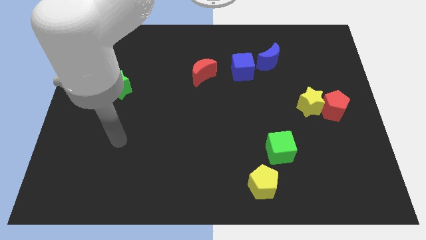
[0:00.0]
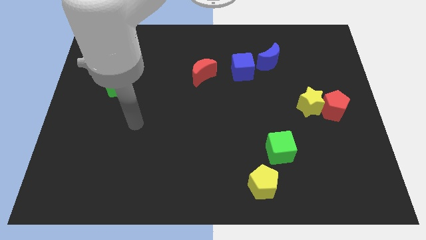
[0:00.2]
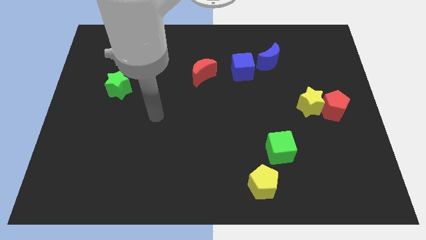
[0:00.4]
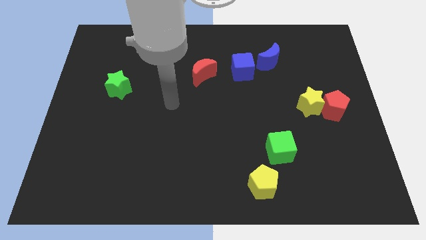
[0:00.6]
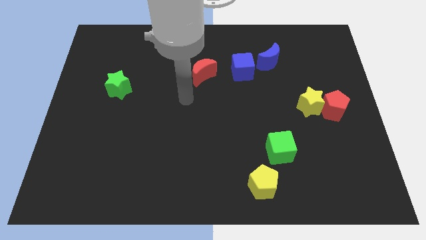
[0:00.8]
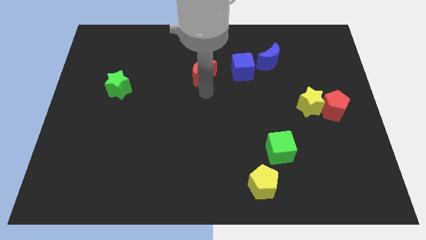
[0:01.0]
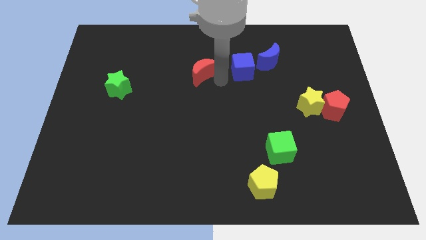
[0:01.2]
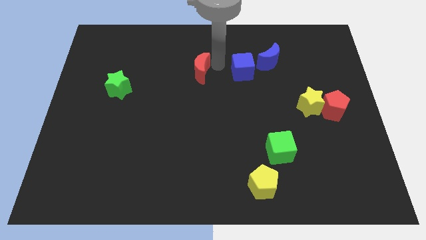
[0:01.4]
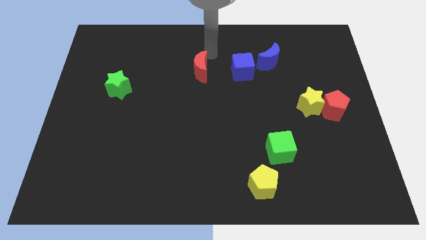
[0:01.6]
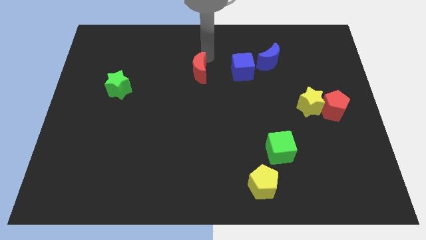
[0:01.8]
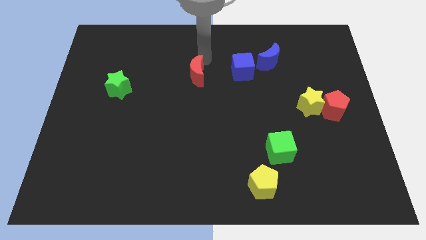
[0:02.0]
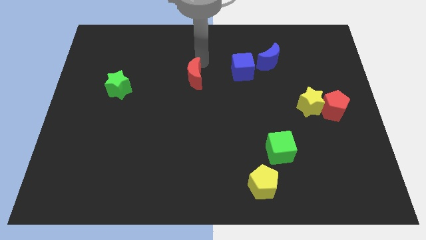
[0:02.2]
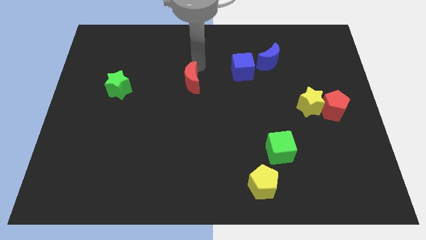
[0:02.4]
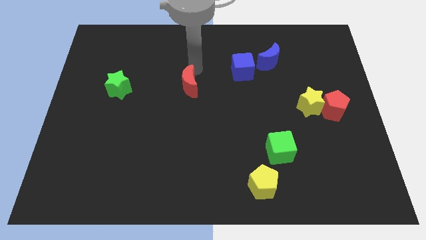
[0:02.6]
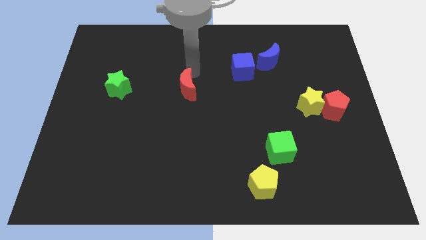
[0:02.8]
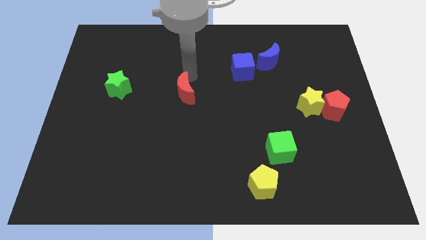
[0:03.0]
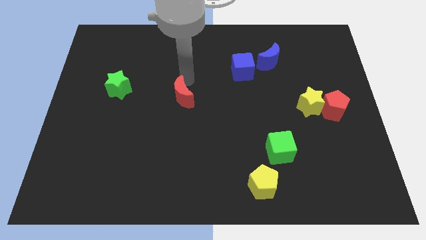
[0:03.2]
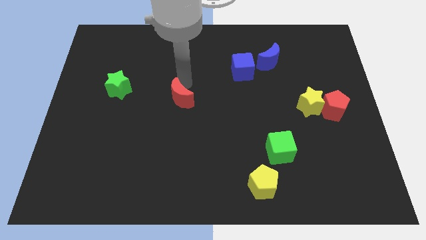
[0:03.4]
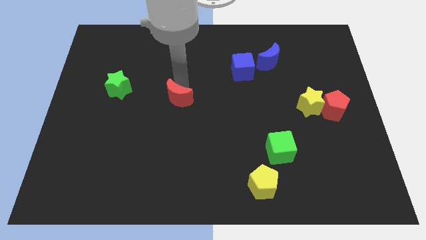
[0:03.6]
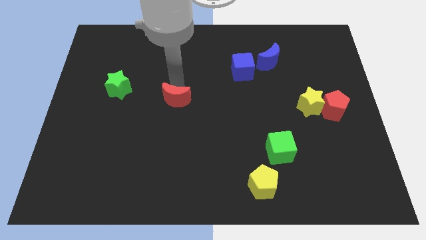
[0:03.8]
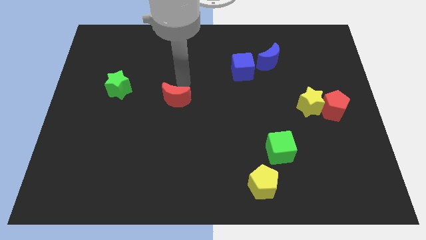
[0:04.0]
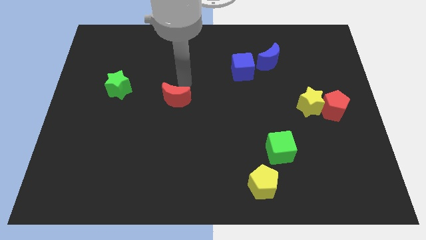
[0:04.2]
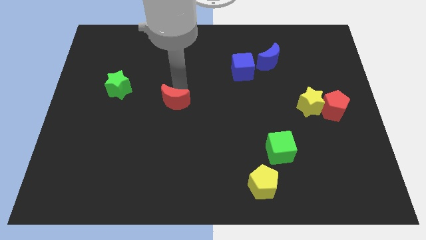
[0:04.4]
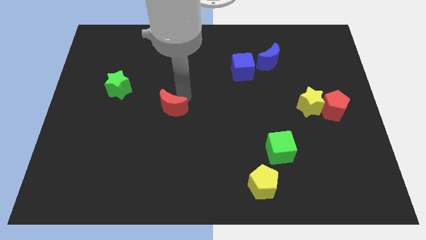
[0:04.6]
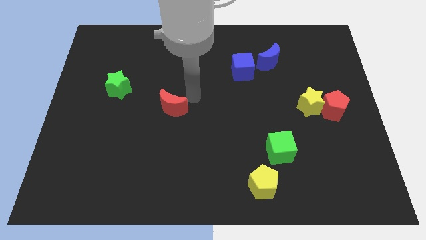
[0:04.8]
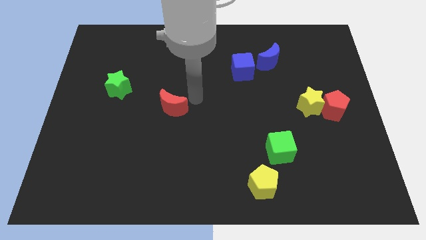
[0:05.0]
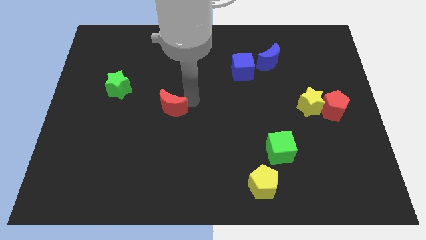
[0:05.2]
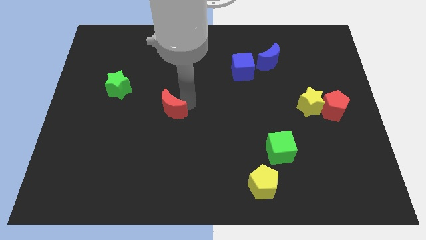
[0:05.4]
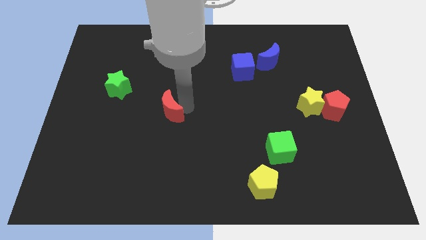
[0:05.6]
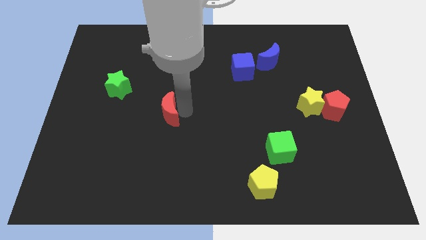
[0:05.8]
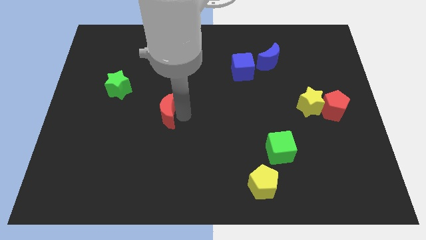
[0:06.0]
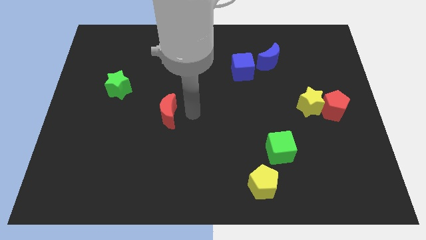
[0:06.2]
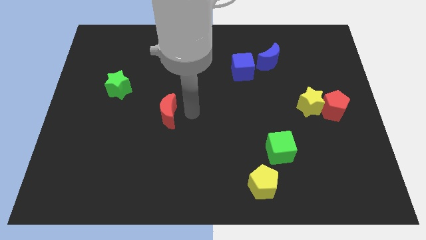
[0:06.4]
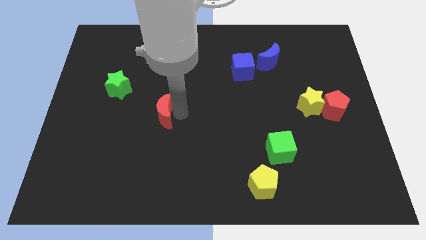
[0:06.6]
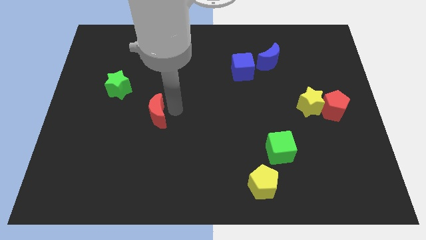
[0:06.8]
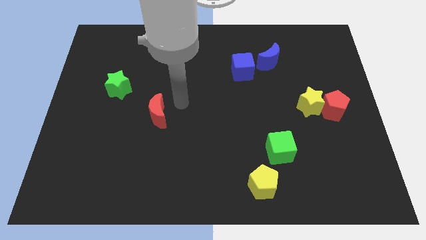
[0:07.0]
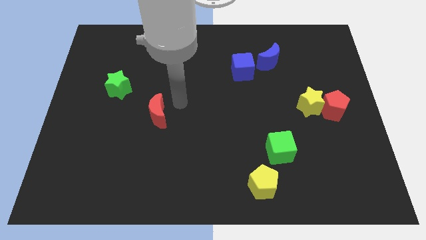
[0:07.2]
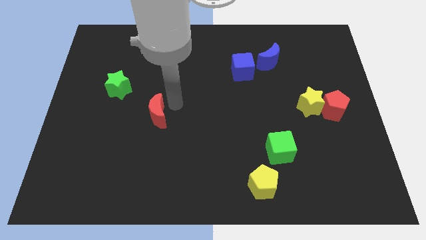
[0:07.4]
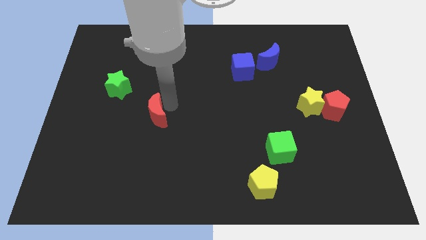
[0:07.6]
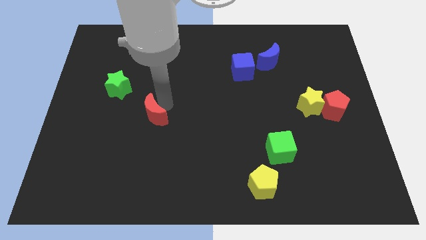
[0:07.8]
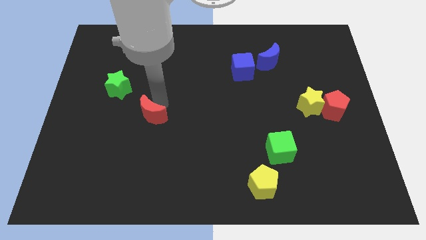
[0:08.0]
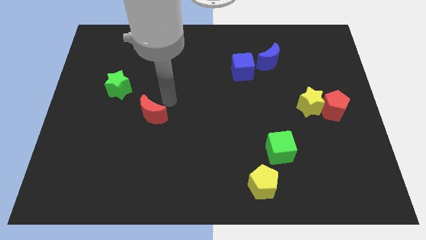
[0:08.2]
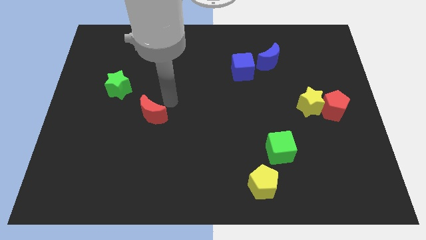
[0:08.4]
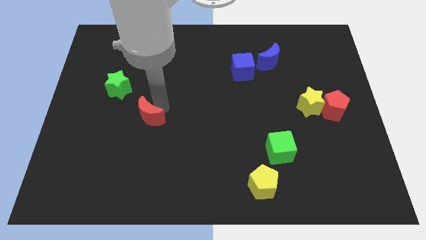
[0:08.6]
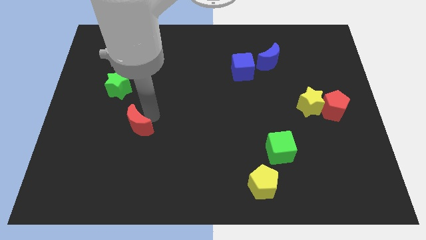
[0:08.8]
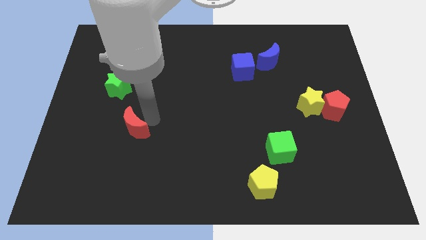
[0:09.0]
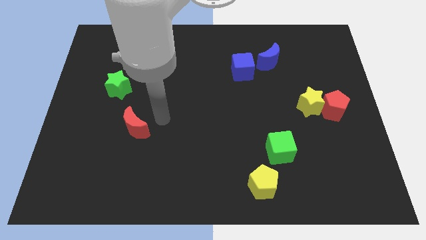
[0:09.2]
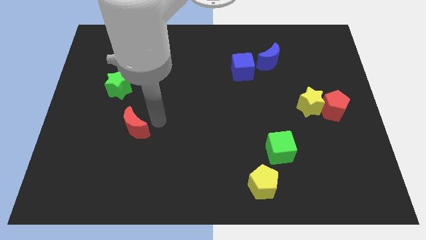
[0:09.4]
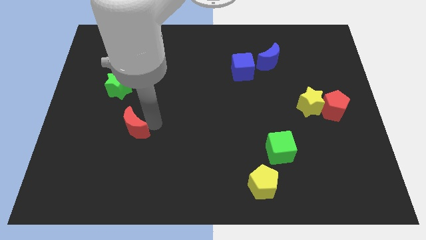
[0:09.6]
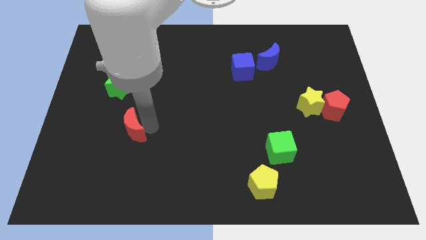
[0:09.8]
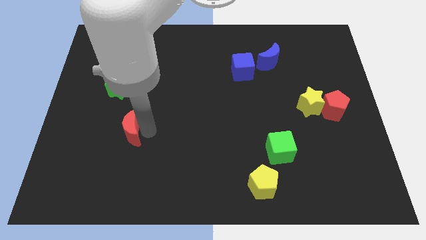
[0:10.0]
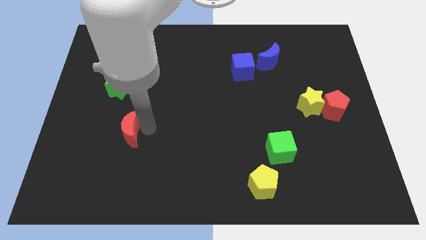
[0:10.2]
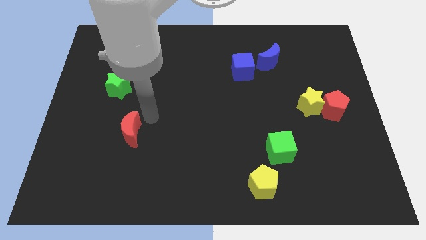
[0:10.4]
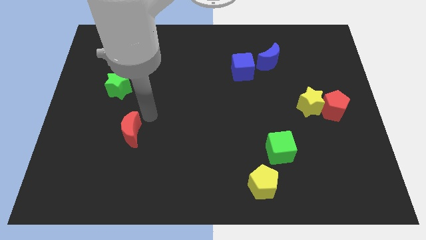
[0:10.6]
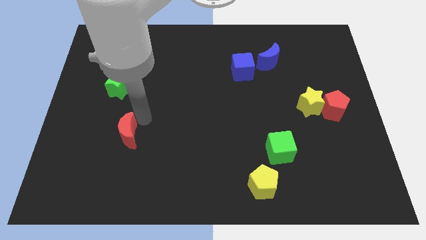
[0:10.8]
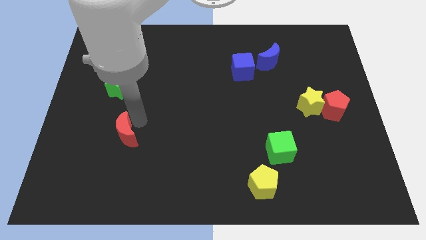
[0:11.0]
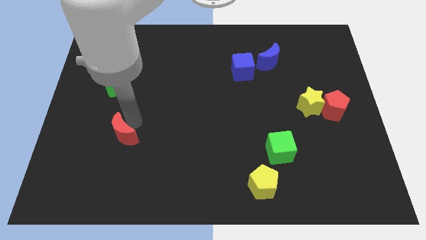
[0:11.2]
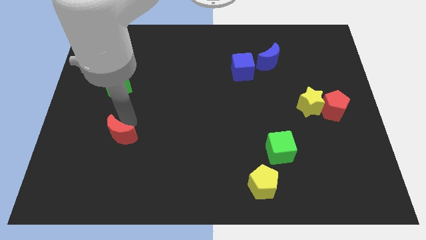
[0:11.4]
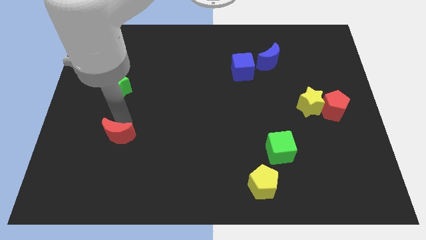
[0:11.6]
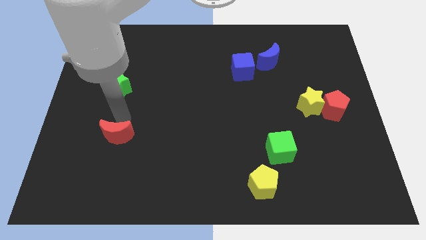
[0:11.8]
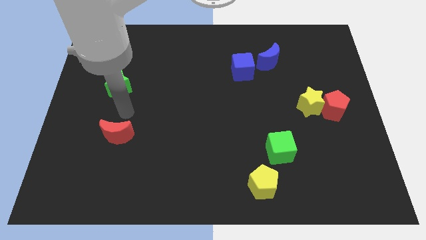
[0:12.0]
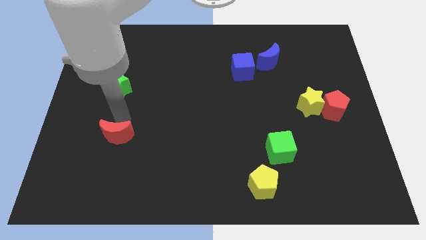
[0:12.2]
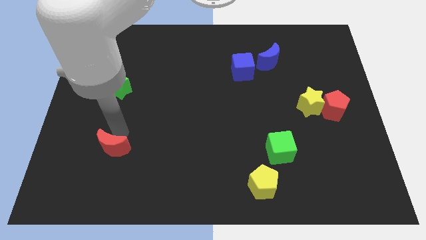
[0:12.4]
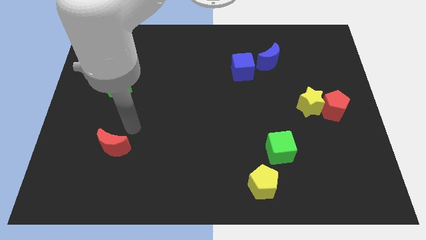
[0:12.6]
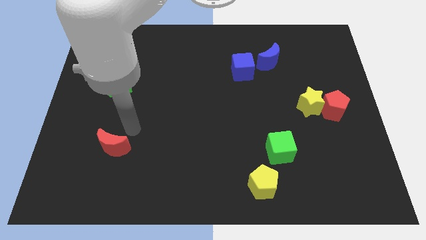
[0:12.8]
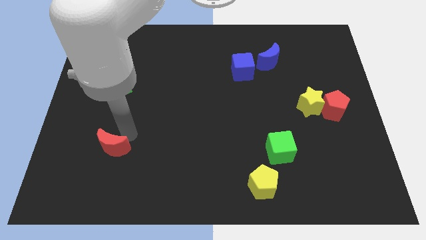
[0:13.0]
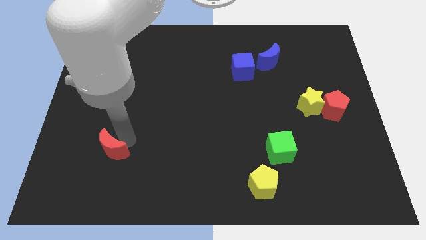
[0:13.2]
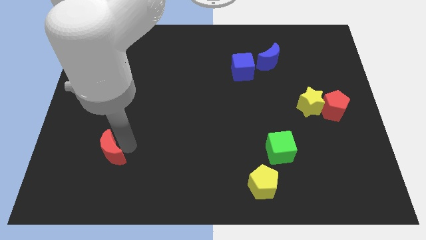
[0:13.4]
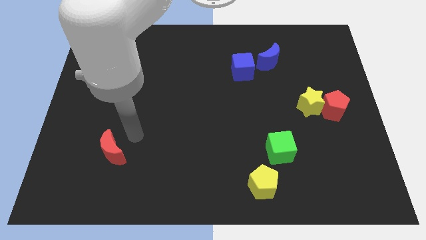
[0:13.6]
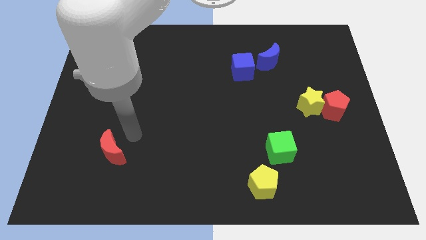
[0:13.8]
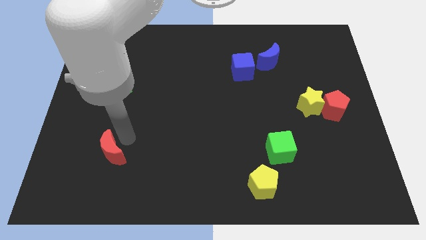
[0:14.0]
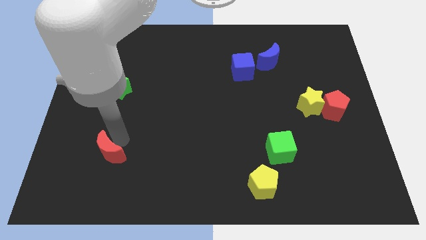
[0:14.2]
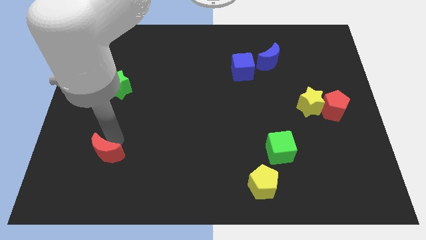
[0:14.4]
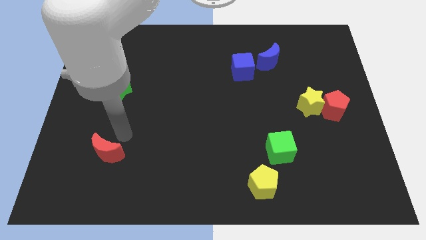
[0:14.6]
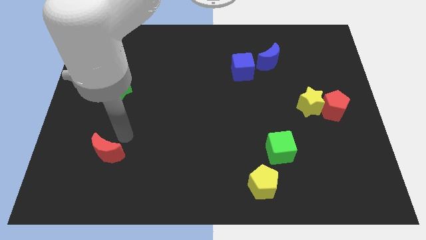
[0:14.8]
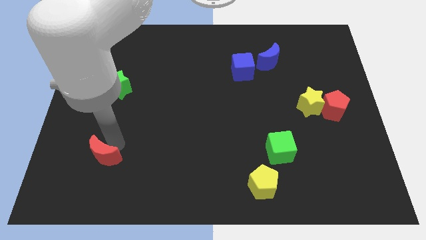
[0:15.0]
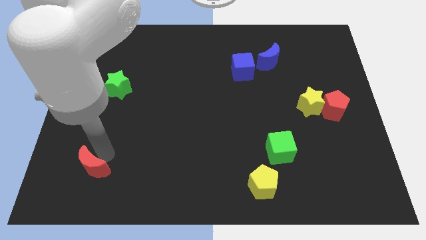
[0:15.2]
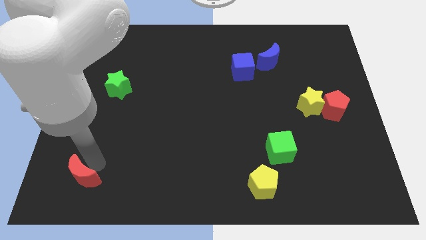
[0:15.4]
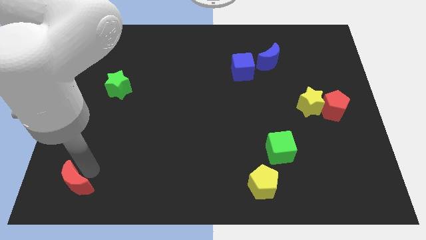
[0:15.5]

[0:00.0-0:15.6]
put the red moon to the bottom left corner
